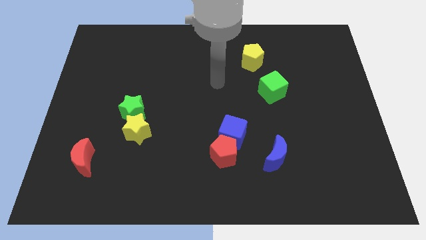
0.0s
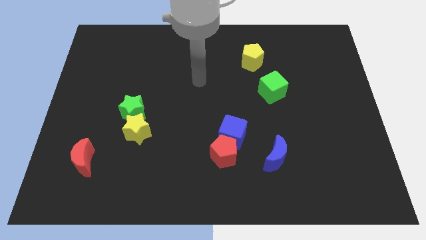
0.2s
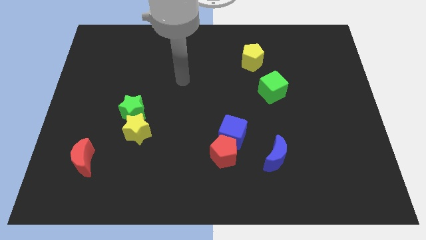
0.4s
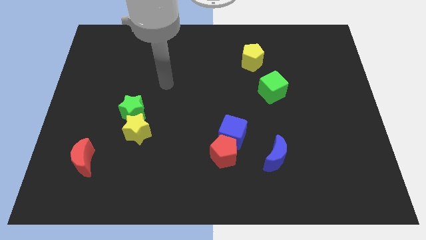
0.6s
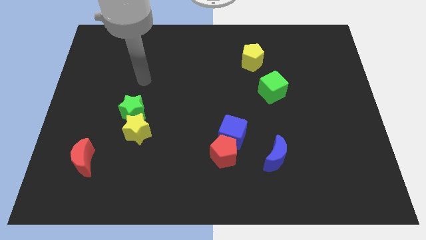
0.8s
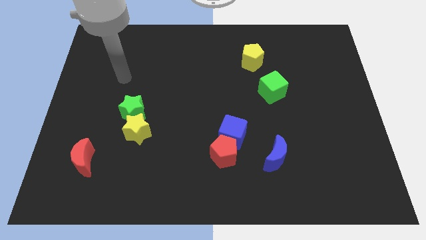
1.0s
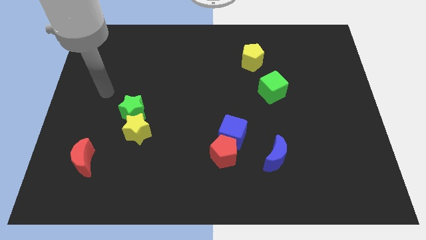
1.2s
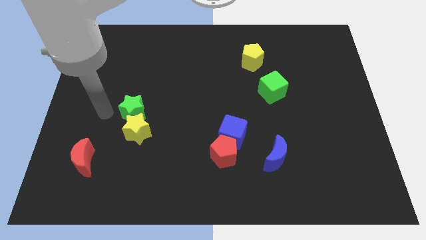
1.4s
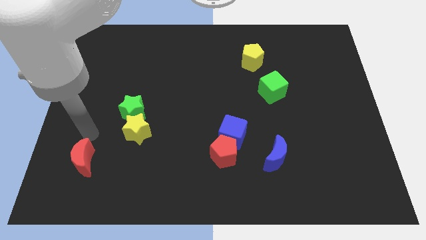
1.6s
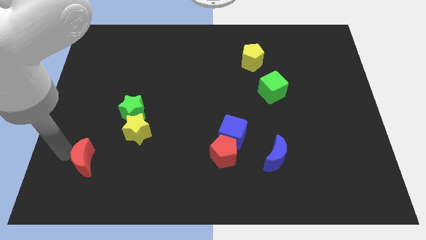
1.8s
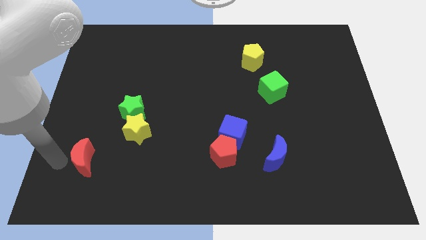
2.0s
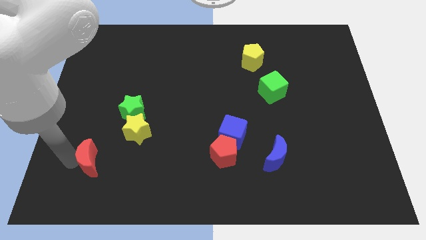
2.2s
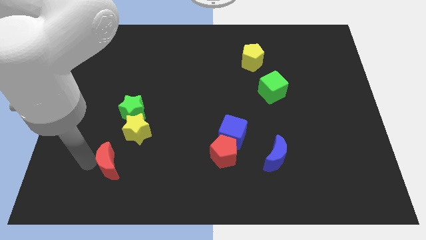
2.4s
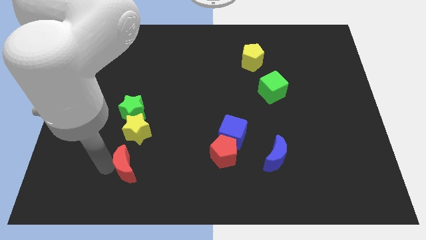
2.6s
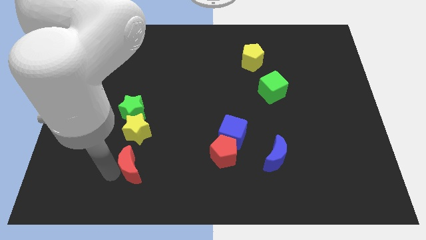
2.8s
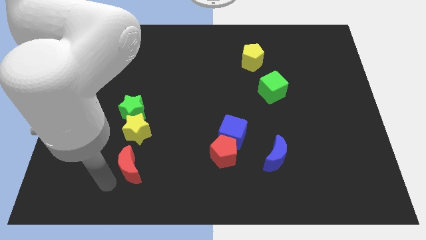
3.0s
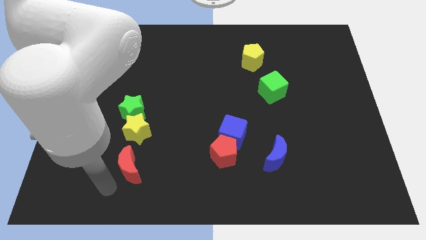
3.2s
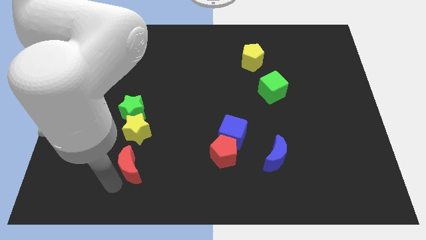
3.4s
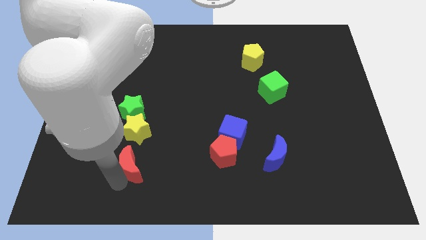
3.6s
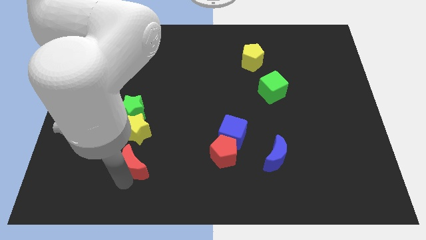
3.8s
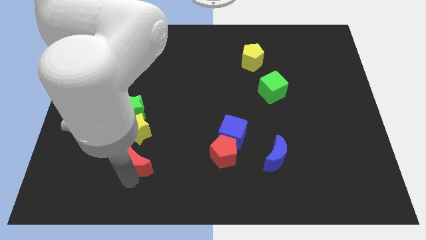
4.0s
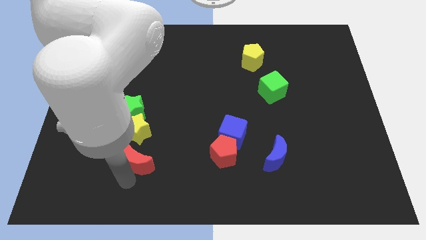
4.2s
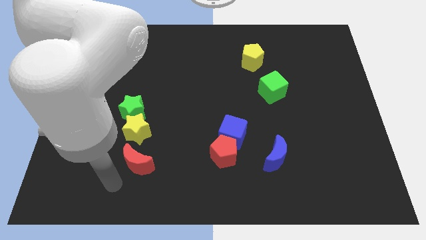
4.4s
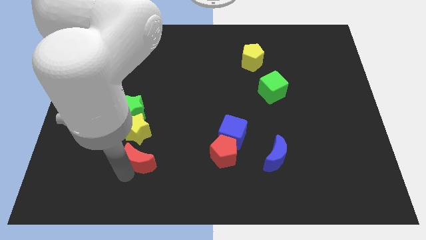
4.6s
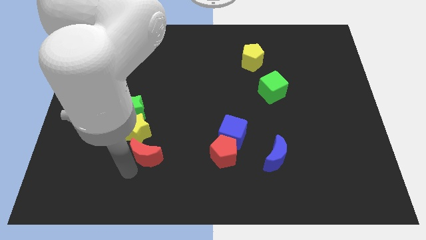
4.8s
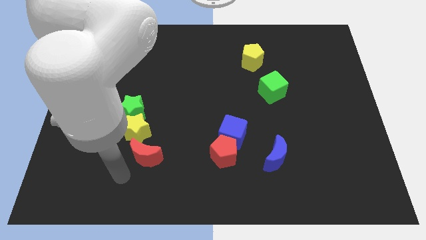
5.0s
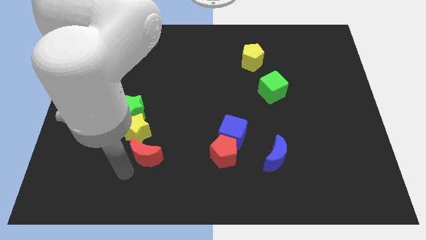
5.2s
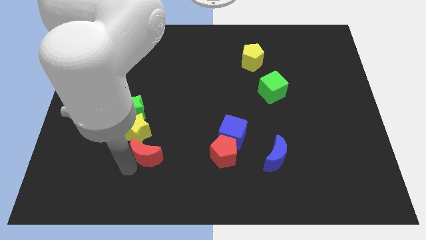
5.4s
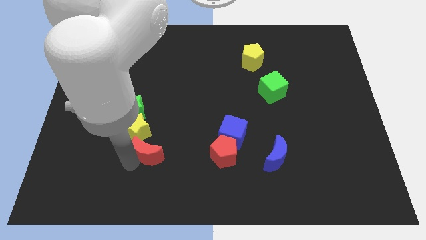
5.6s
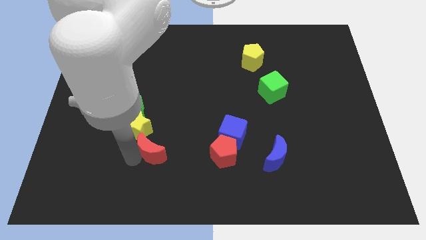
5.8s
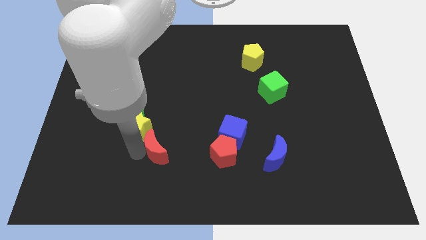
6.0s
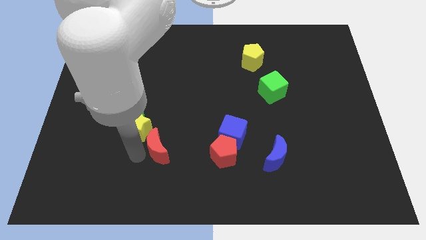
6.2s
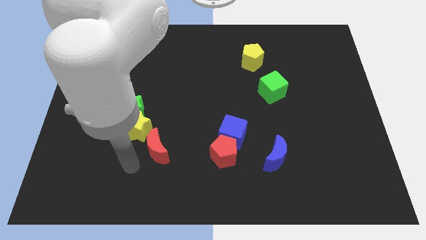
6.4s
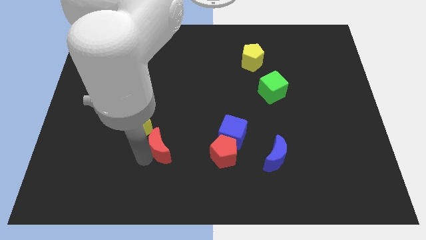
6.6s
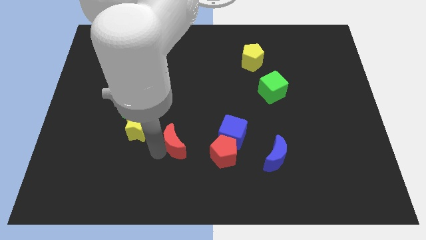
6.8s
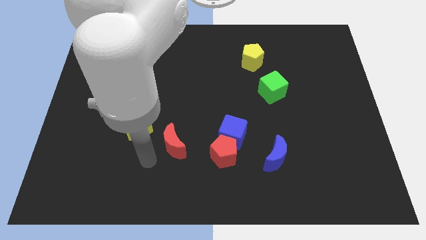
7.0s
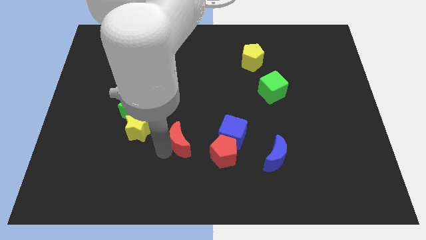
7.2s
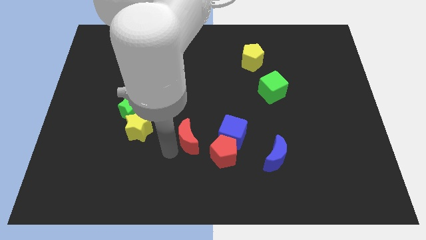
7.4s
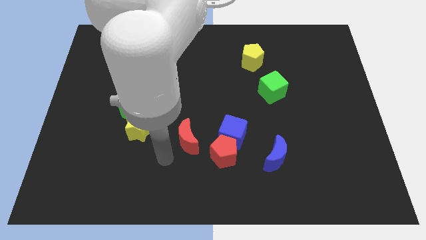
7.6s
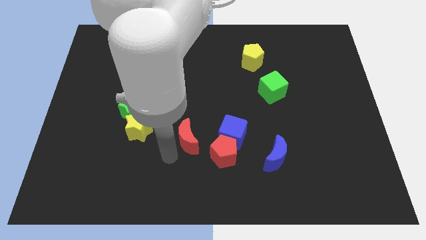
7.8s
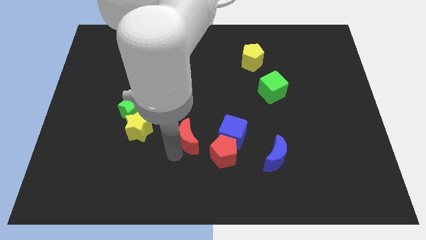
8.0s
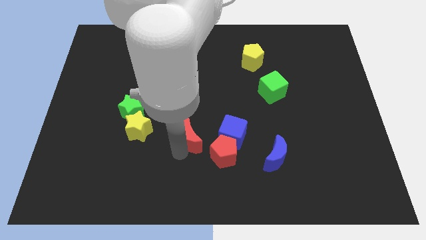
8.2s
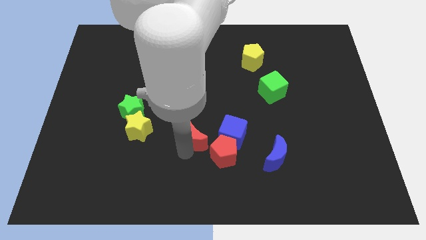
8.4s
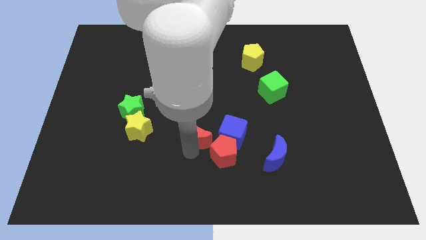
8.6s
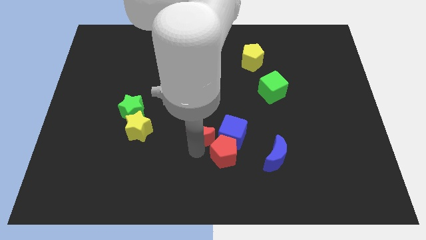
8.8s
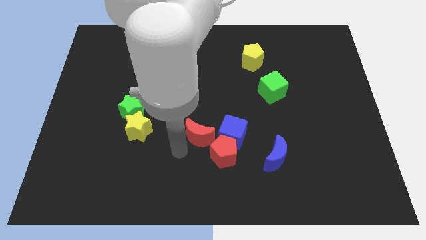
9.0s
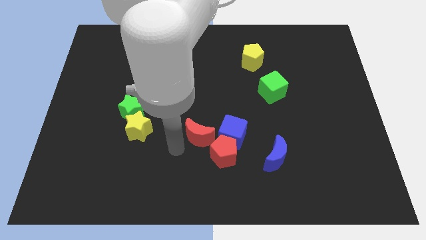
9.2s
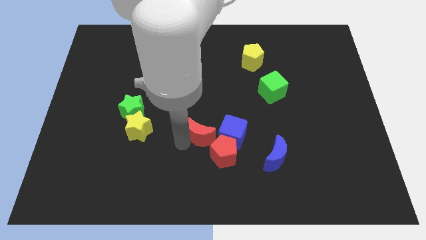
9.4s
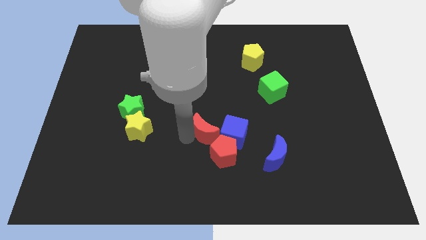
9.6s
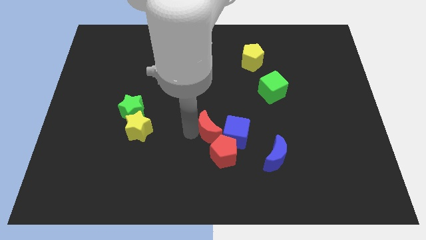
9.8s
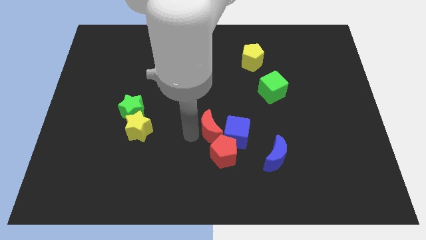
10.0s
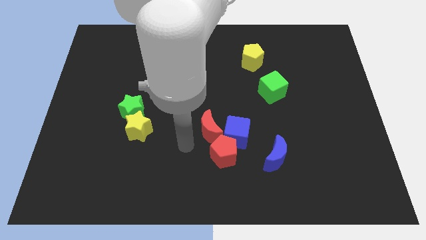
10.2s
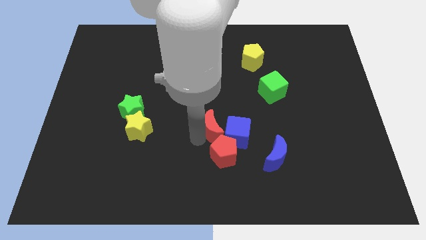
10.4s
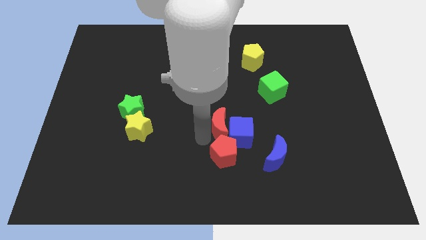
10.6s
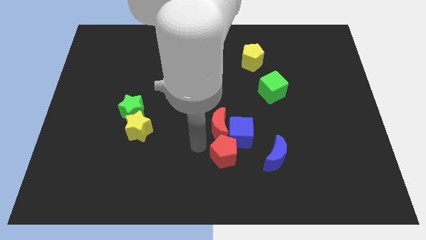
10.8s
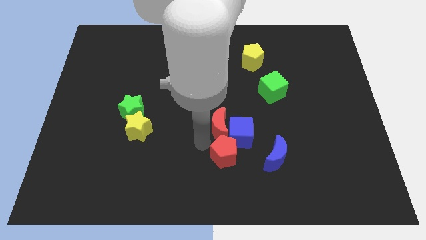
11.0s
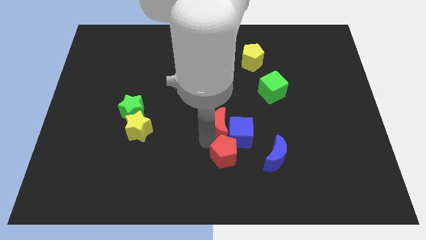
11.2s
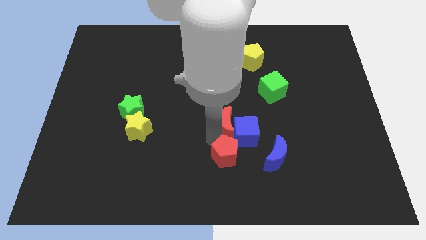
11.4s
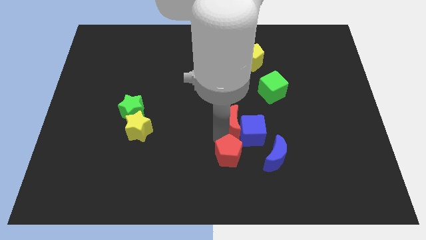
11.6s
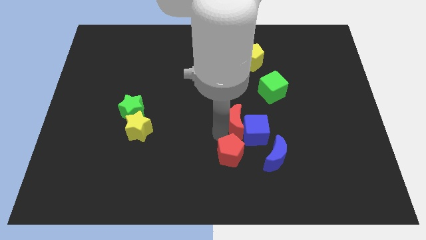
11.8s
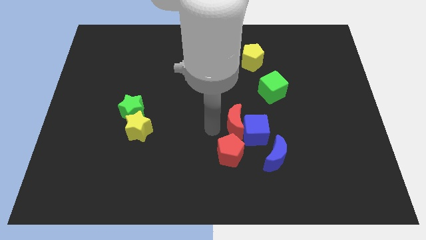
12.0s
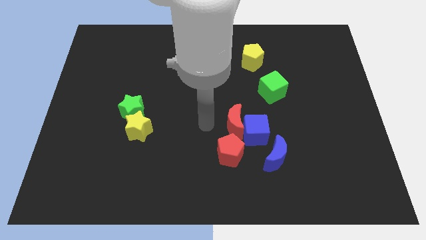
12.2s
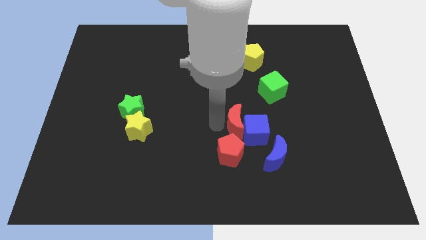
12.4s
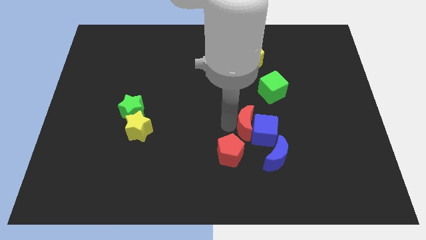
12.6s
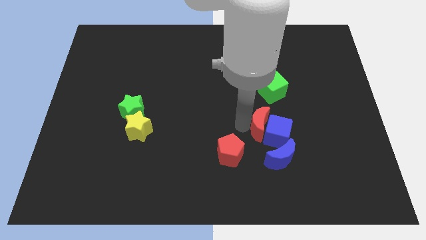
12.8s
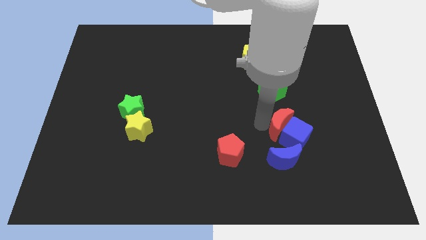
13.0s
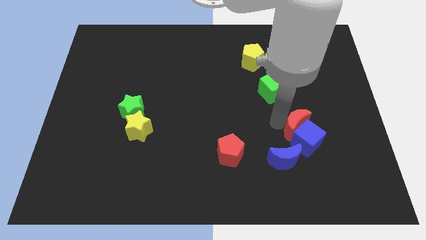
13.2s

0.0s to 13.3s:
put the red moon diagonally up and to the right of the blue moon
